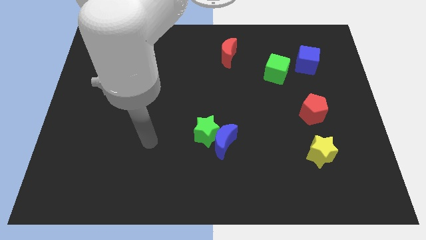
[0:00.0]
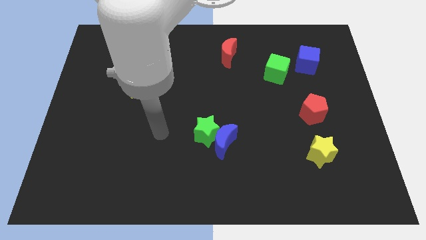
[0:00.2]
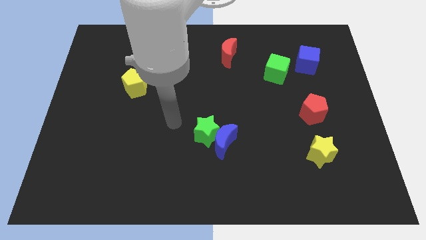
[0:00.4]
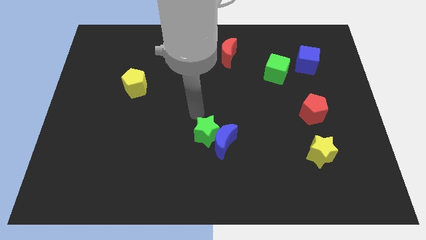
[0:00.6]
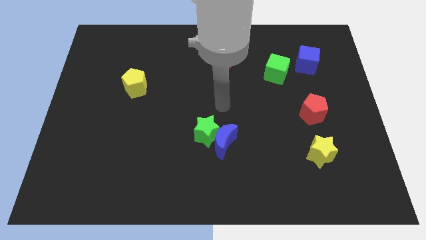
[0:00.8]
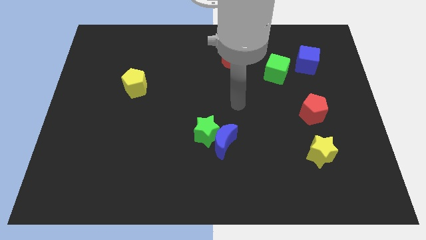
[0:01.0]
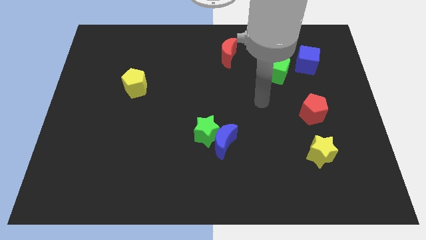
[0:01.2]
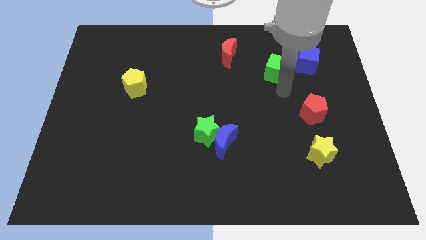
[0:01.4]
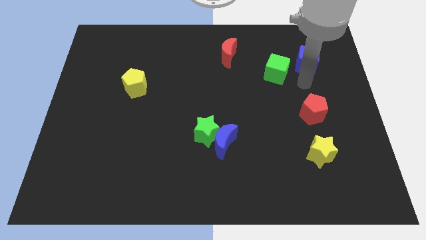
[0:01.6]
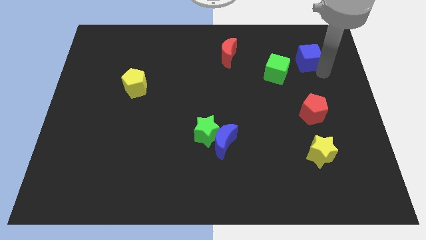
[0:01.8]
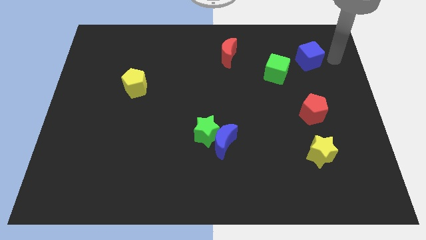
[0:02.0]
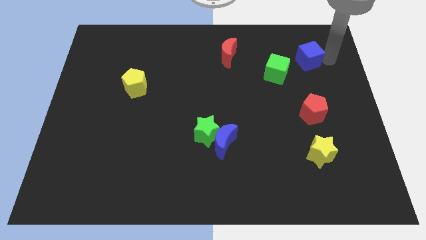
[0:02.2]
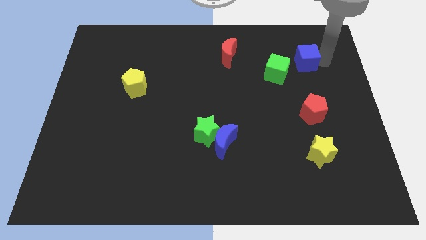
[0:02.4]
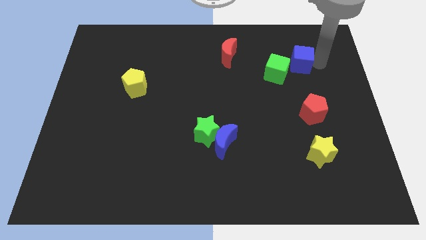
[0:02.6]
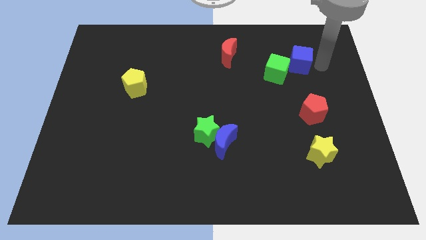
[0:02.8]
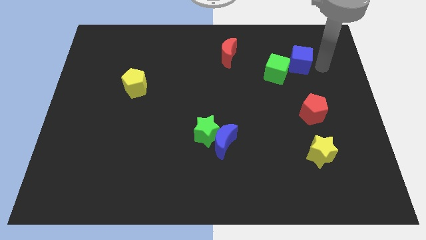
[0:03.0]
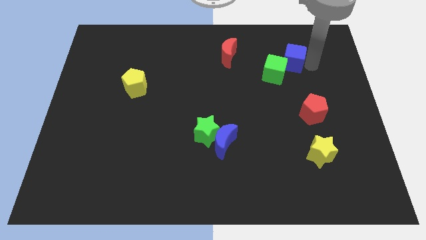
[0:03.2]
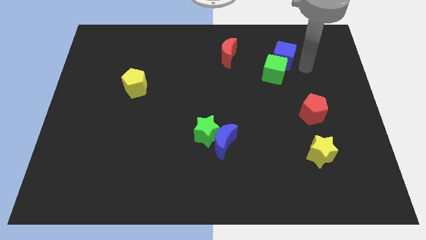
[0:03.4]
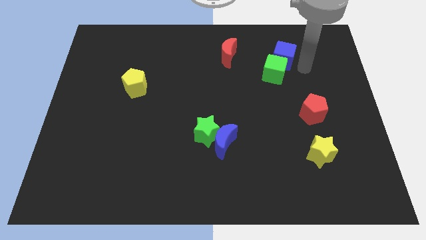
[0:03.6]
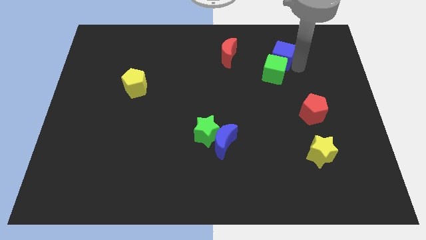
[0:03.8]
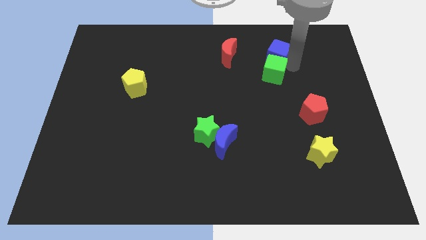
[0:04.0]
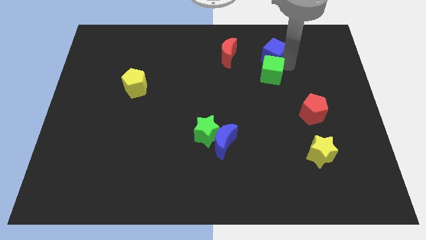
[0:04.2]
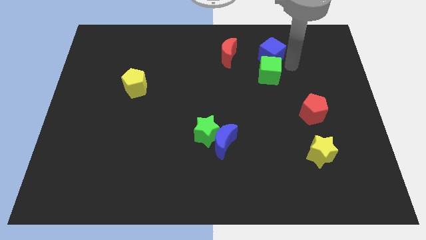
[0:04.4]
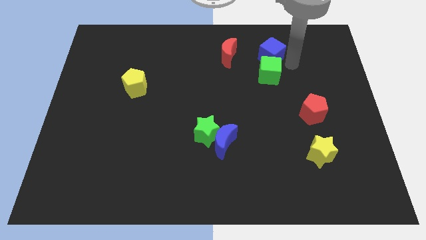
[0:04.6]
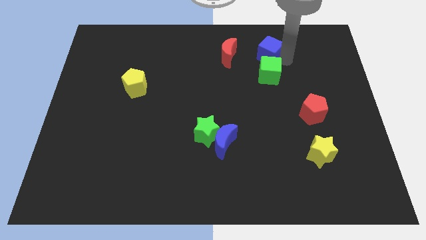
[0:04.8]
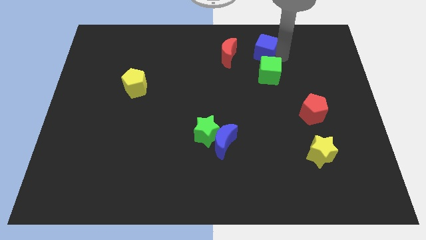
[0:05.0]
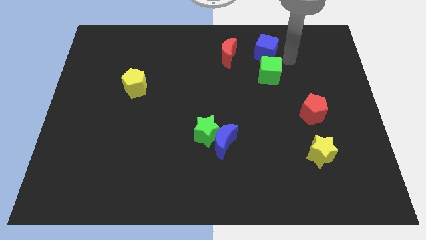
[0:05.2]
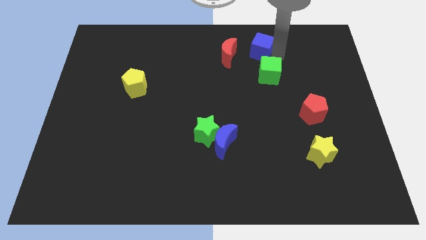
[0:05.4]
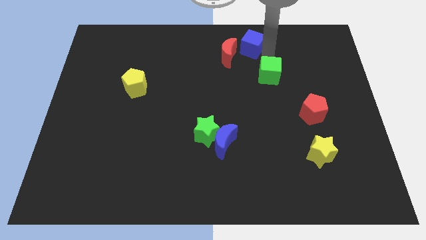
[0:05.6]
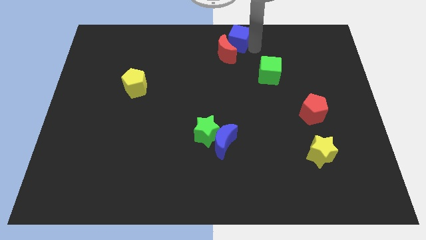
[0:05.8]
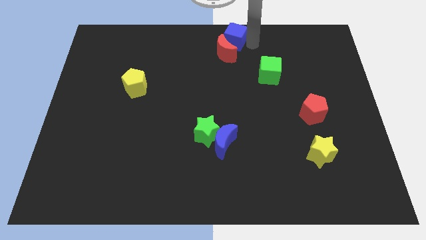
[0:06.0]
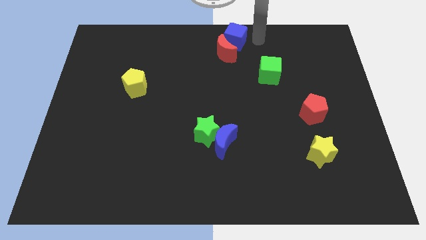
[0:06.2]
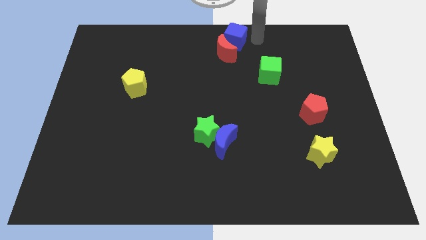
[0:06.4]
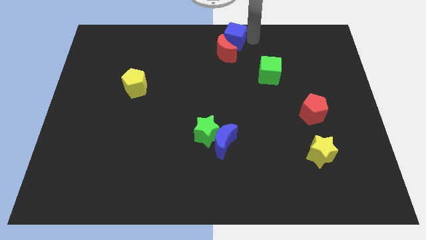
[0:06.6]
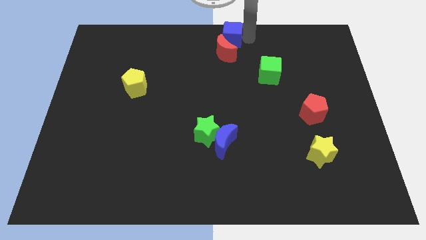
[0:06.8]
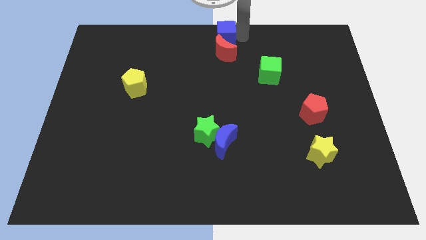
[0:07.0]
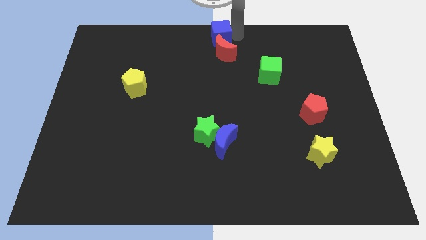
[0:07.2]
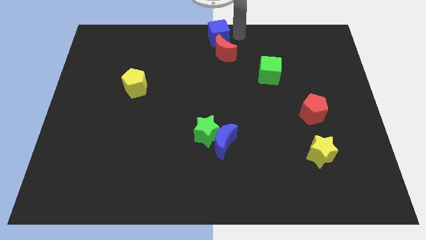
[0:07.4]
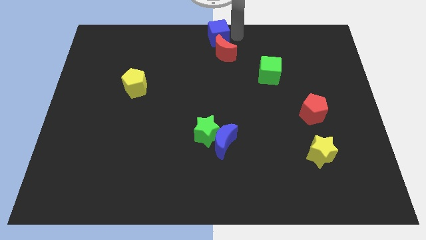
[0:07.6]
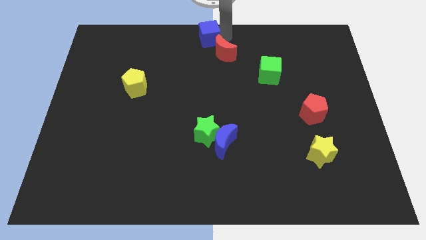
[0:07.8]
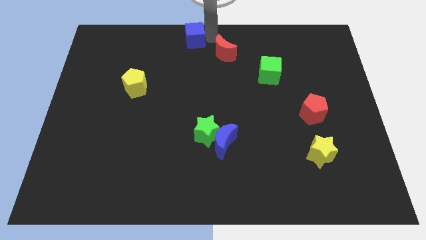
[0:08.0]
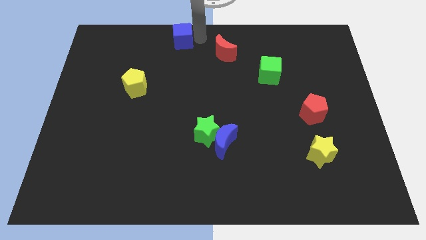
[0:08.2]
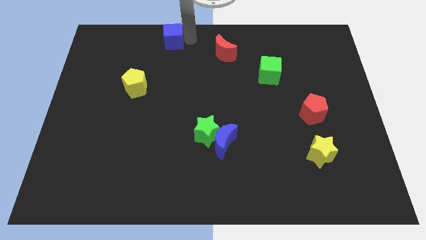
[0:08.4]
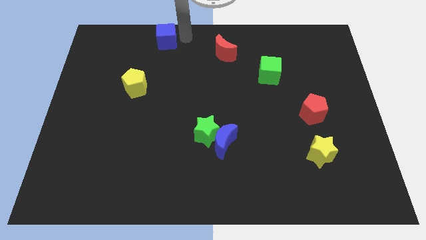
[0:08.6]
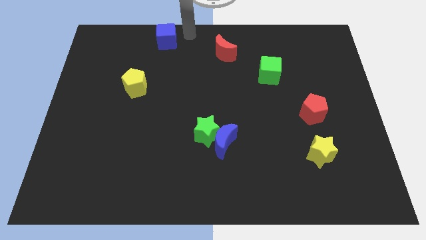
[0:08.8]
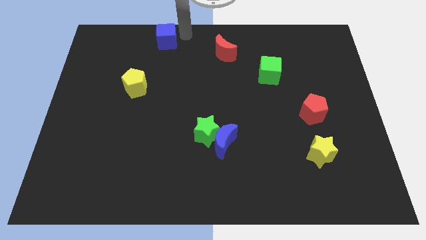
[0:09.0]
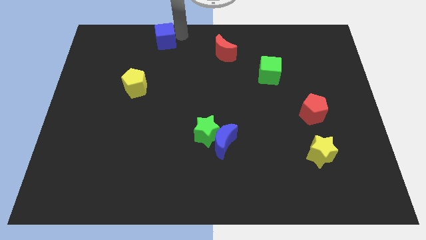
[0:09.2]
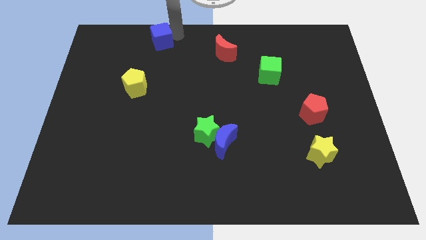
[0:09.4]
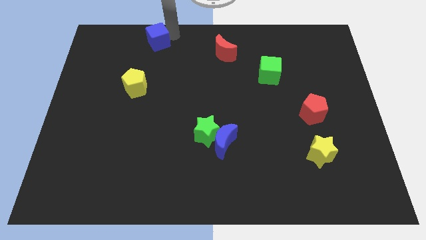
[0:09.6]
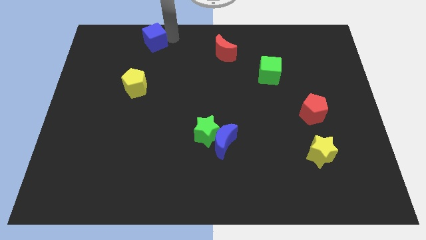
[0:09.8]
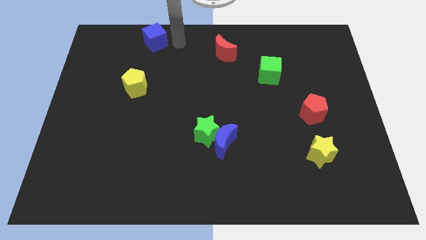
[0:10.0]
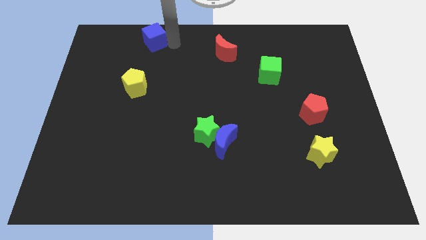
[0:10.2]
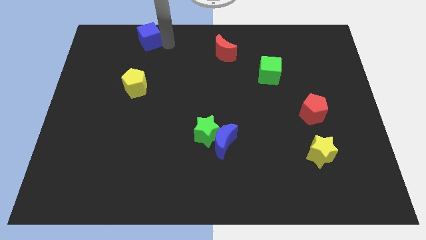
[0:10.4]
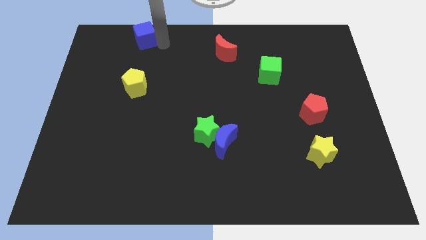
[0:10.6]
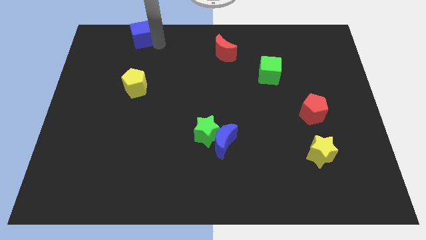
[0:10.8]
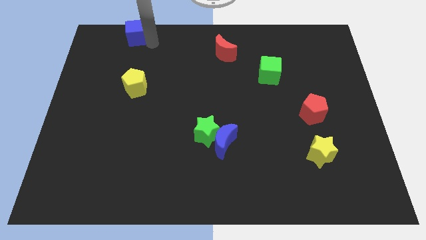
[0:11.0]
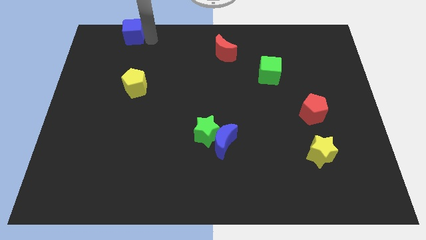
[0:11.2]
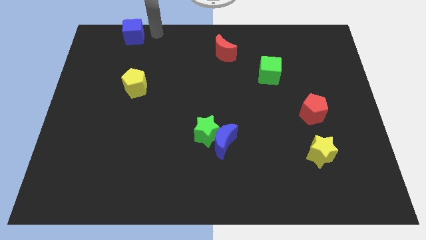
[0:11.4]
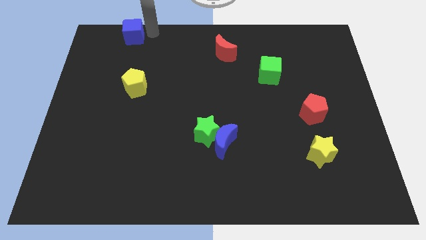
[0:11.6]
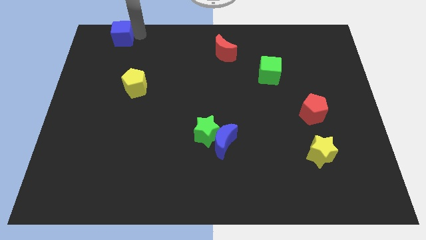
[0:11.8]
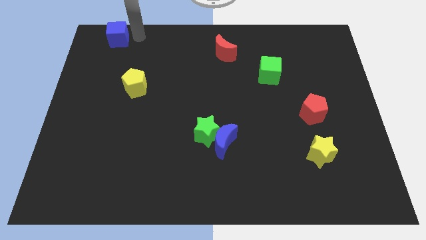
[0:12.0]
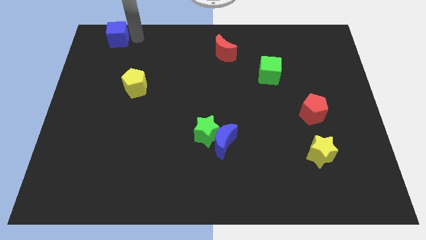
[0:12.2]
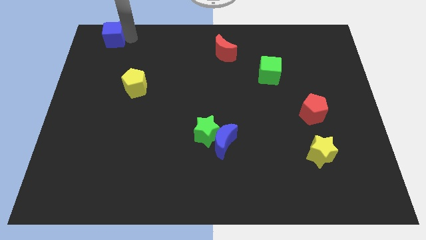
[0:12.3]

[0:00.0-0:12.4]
move the blue cube to the top left
